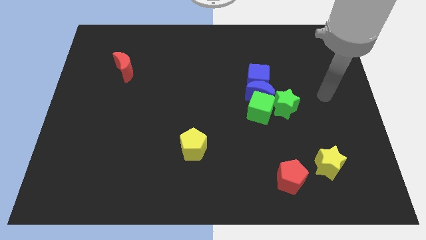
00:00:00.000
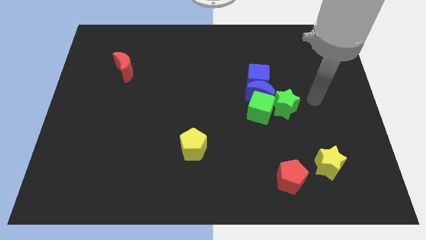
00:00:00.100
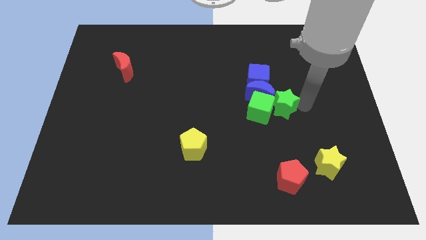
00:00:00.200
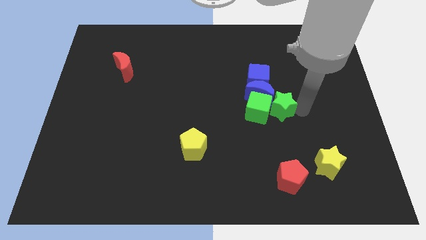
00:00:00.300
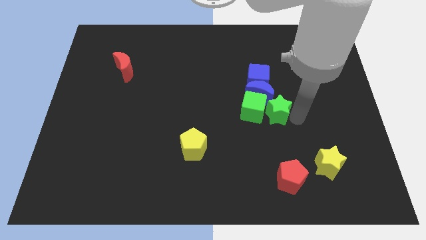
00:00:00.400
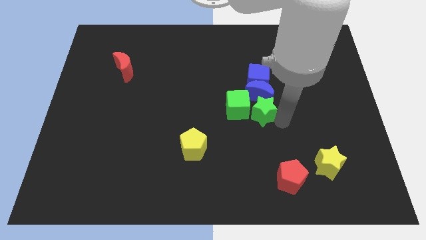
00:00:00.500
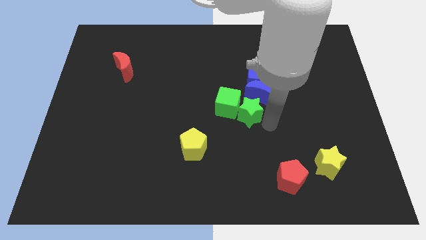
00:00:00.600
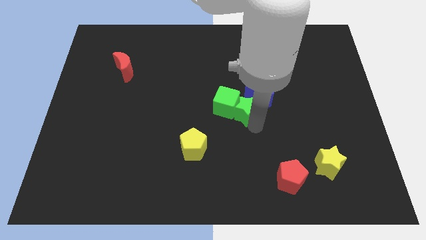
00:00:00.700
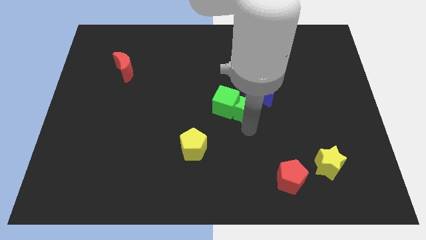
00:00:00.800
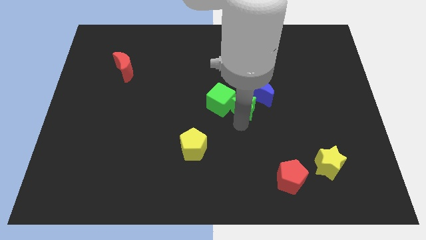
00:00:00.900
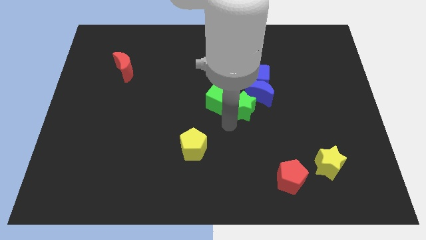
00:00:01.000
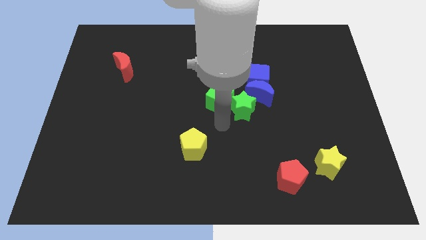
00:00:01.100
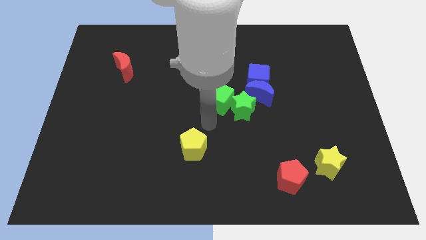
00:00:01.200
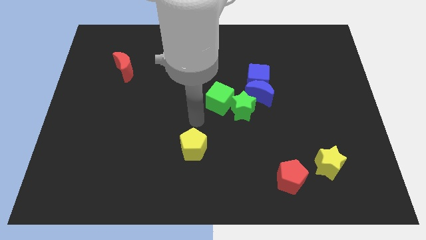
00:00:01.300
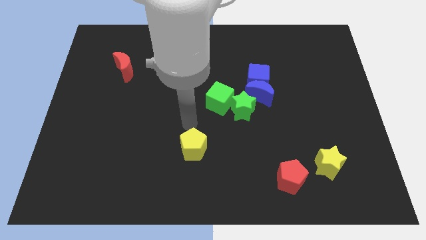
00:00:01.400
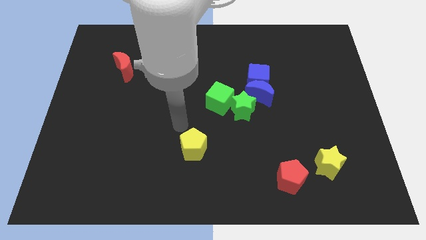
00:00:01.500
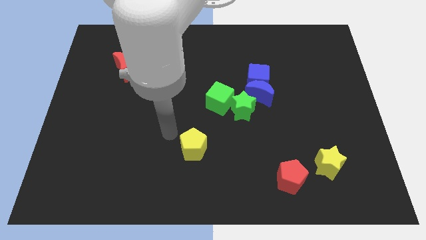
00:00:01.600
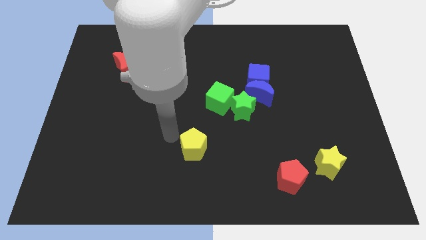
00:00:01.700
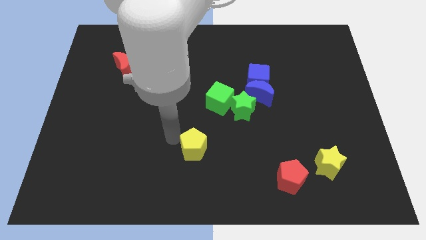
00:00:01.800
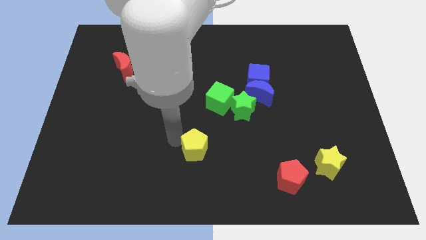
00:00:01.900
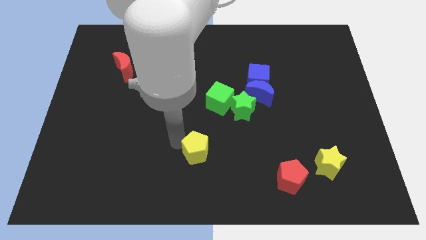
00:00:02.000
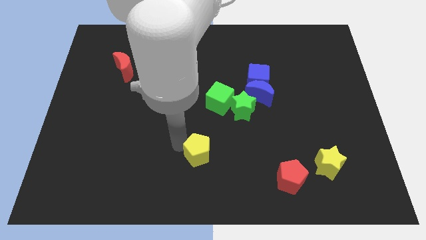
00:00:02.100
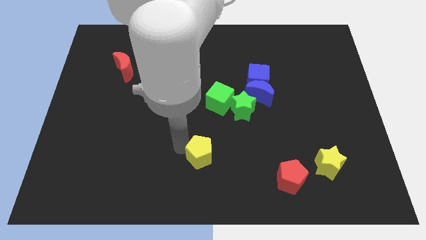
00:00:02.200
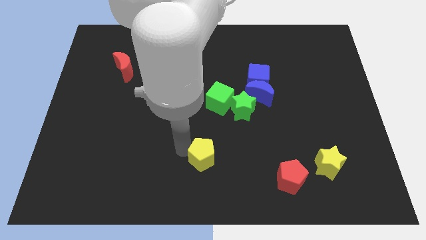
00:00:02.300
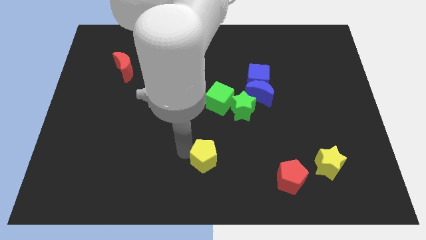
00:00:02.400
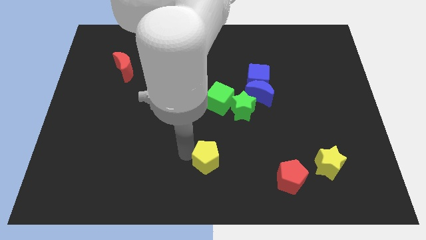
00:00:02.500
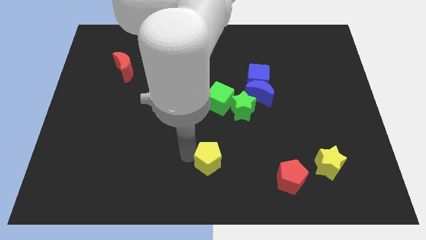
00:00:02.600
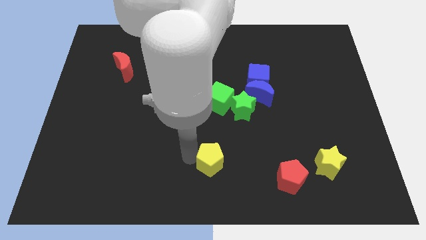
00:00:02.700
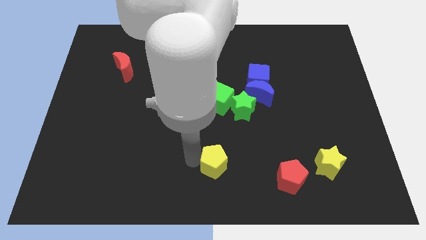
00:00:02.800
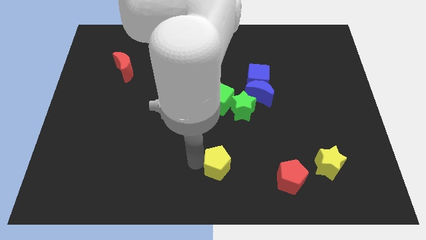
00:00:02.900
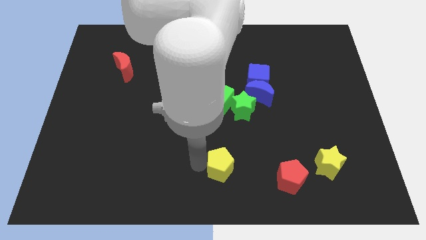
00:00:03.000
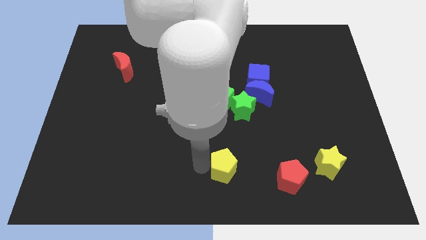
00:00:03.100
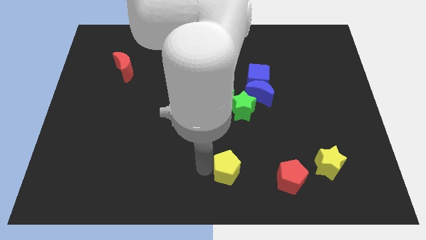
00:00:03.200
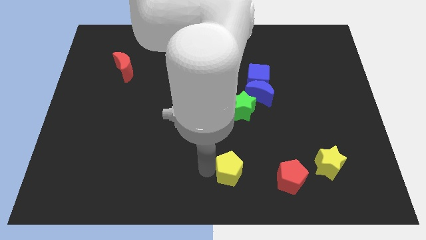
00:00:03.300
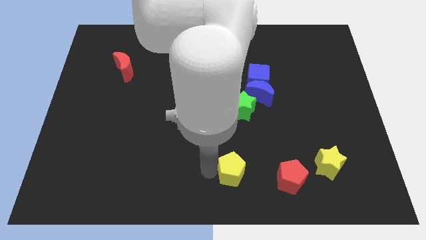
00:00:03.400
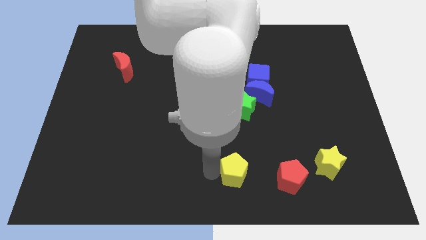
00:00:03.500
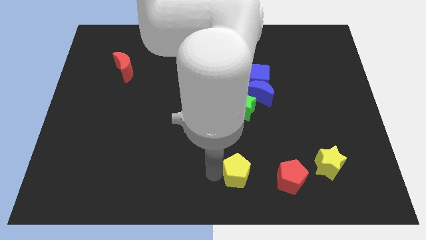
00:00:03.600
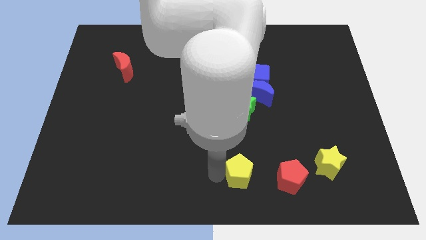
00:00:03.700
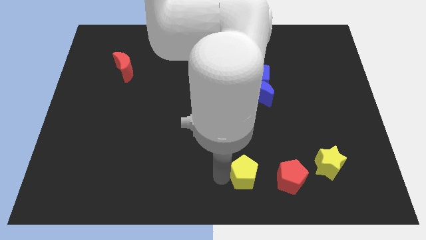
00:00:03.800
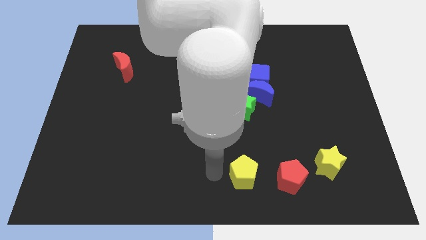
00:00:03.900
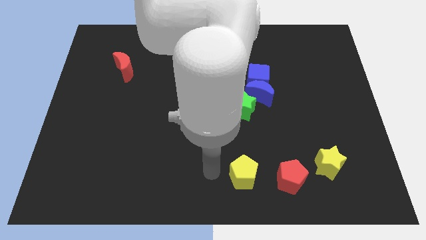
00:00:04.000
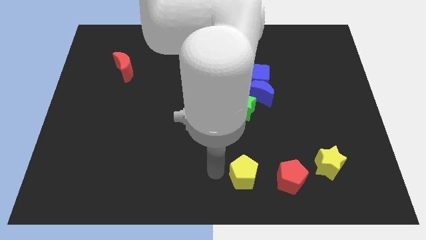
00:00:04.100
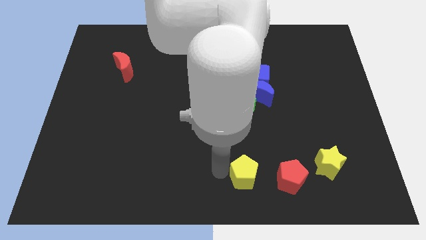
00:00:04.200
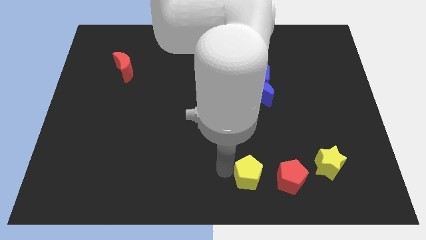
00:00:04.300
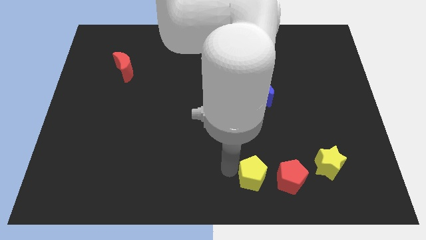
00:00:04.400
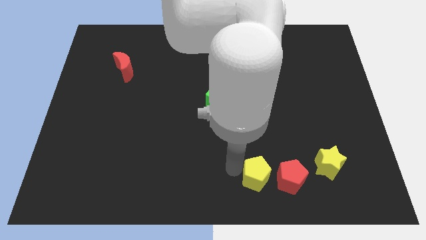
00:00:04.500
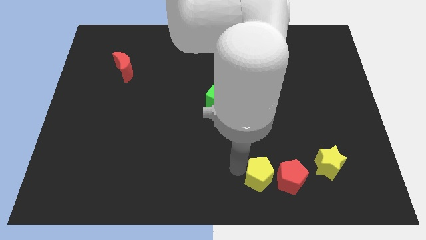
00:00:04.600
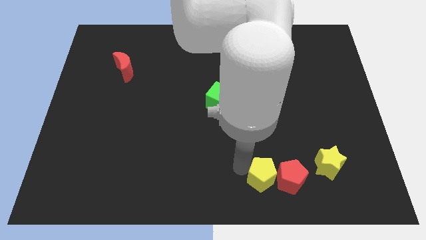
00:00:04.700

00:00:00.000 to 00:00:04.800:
move the yellow pentagon close to the red pentagon

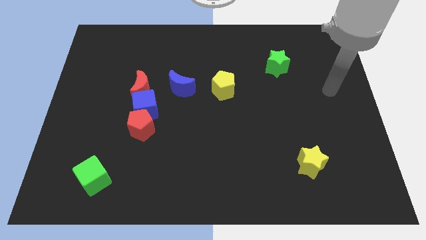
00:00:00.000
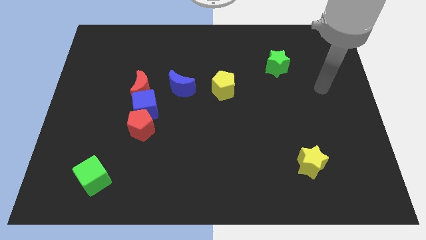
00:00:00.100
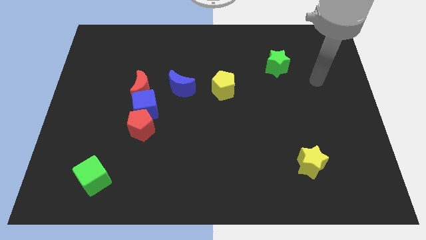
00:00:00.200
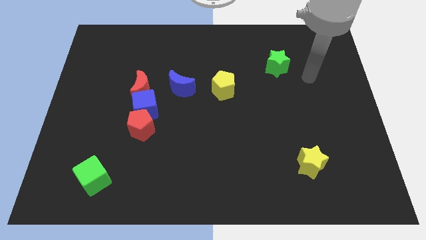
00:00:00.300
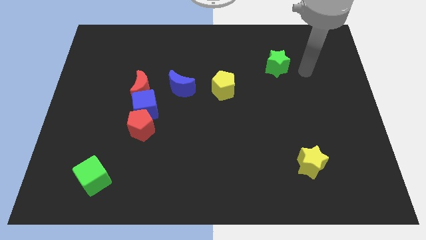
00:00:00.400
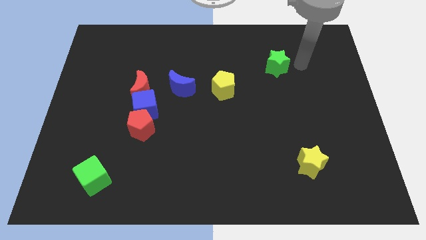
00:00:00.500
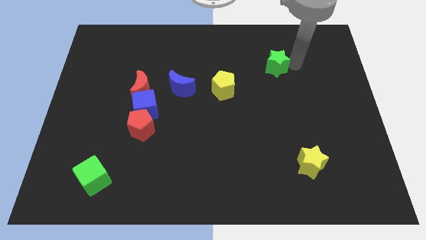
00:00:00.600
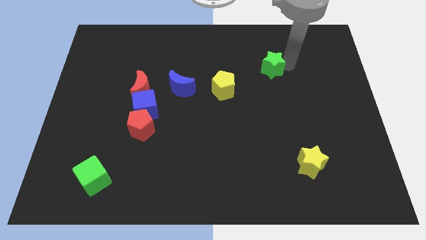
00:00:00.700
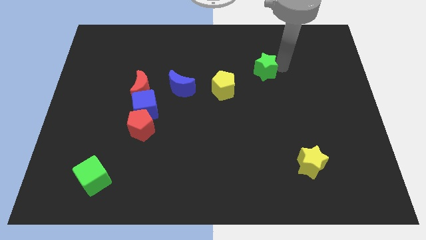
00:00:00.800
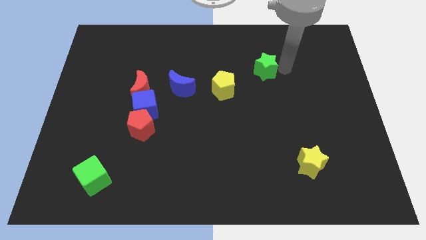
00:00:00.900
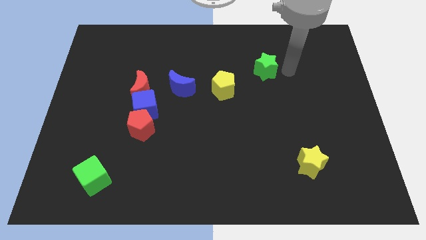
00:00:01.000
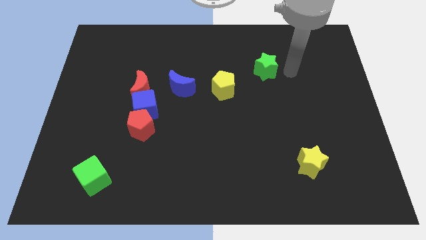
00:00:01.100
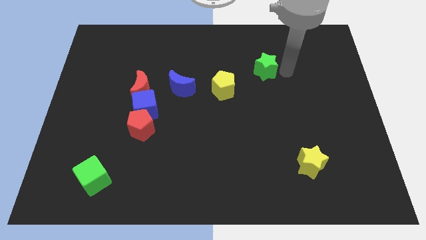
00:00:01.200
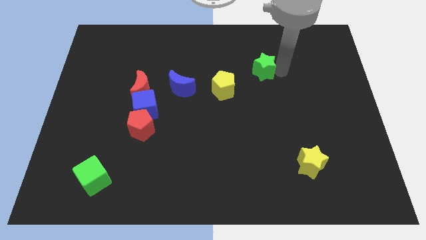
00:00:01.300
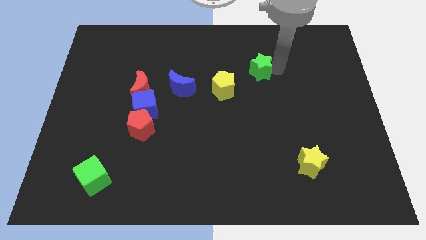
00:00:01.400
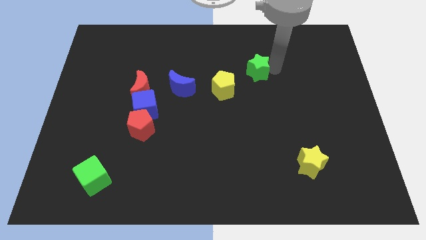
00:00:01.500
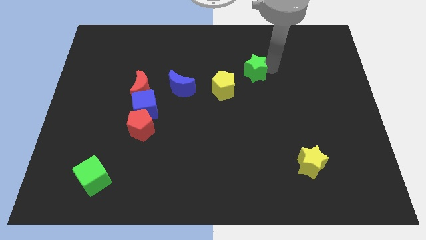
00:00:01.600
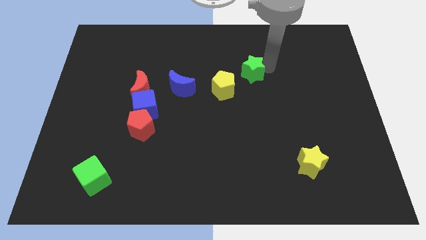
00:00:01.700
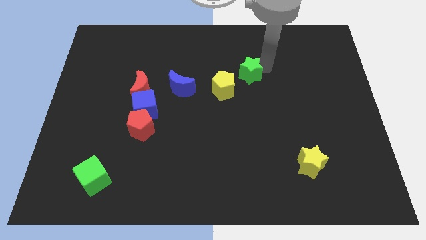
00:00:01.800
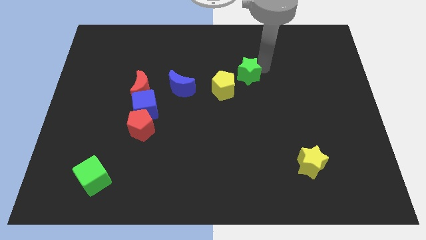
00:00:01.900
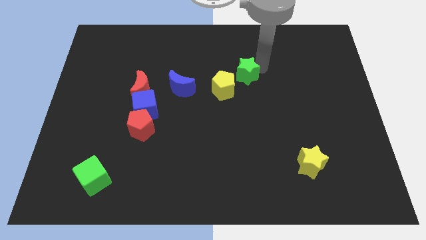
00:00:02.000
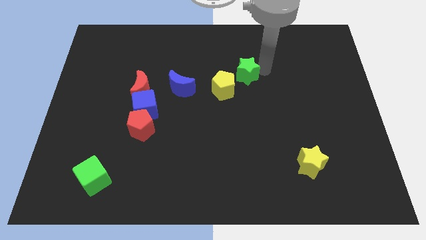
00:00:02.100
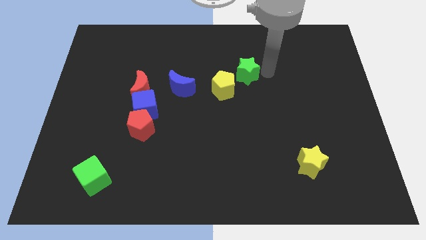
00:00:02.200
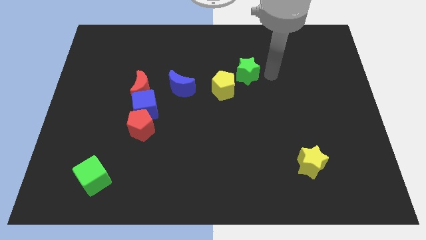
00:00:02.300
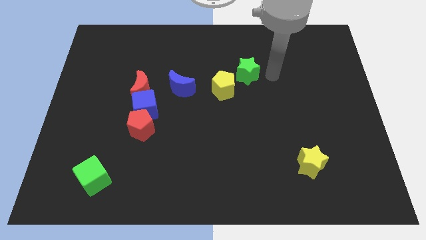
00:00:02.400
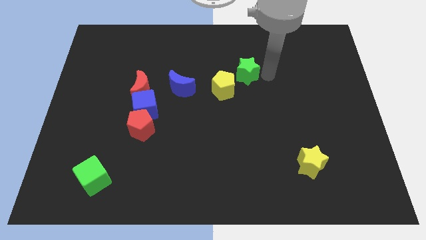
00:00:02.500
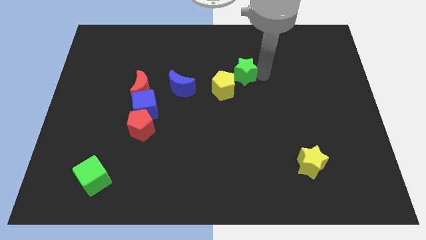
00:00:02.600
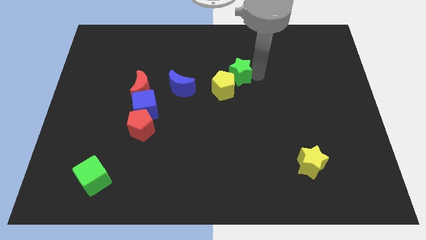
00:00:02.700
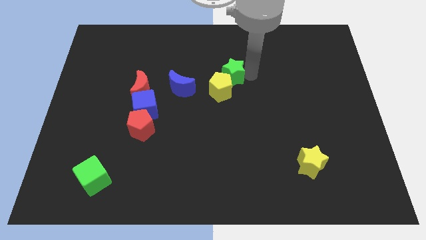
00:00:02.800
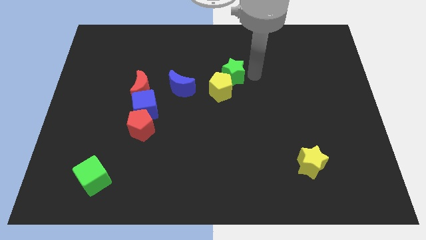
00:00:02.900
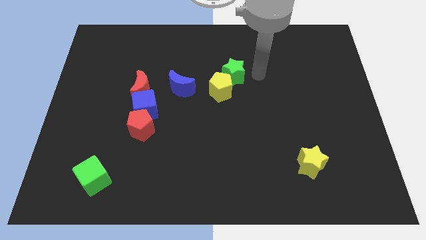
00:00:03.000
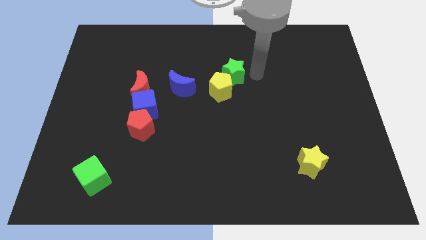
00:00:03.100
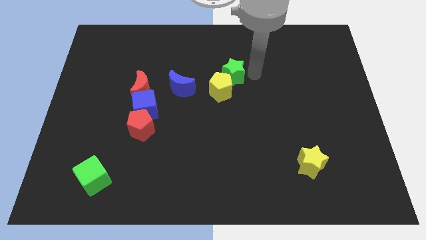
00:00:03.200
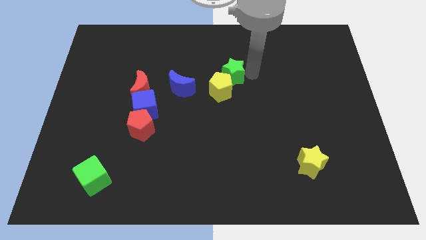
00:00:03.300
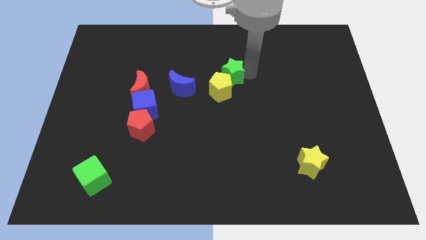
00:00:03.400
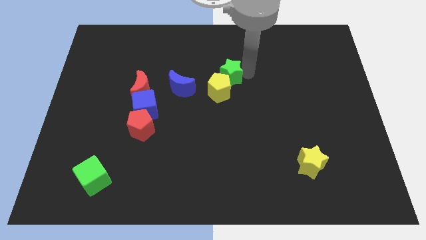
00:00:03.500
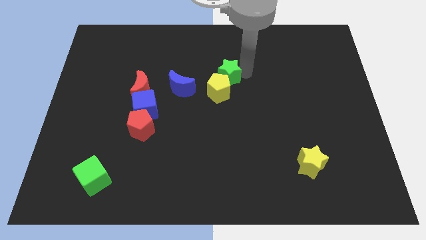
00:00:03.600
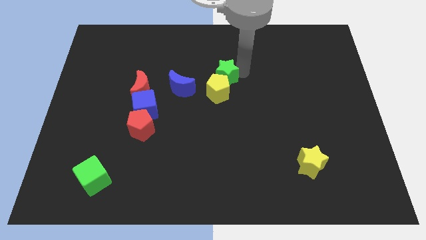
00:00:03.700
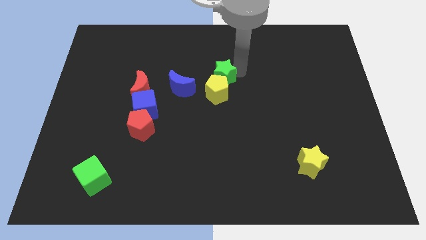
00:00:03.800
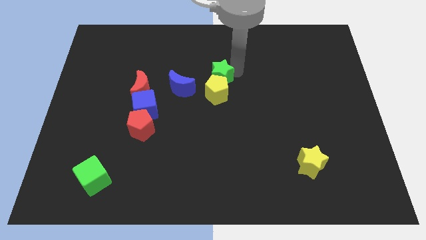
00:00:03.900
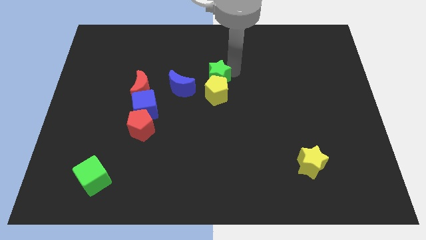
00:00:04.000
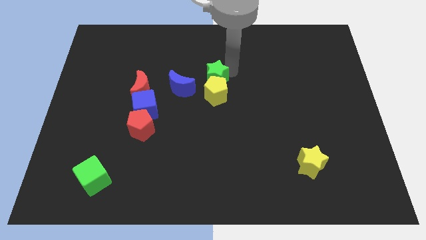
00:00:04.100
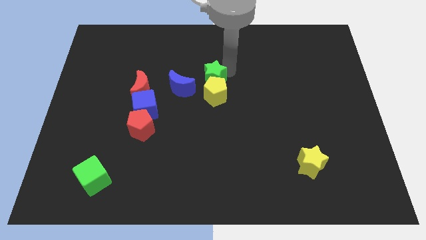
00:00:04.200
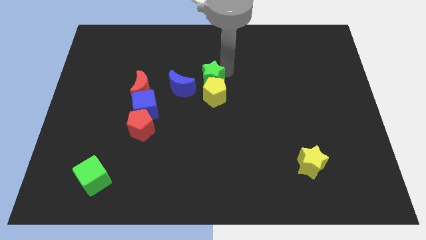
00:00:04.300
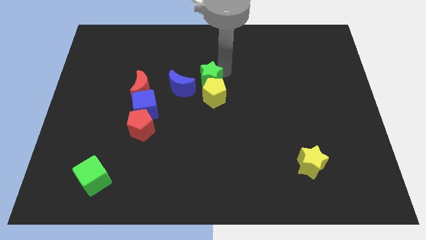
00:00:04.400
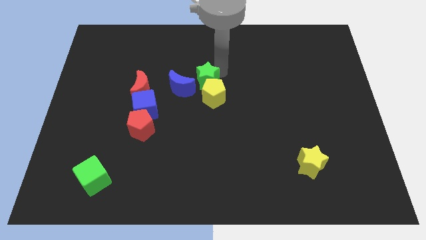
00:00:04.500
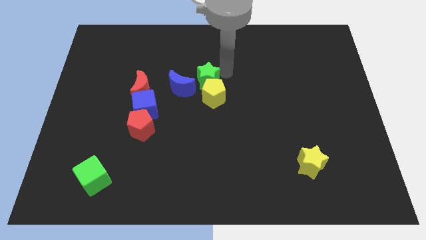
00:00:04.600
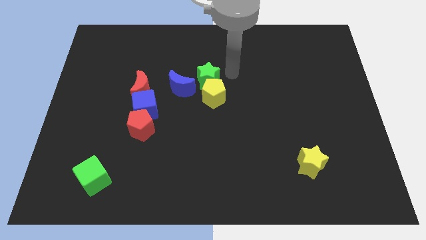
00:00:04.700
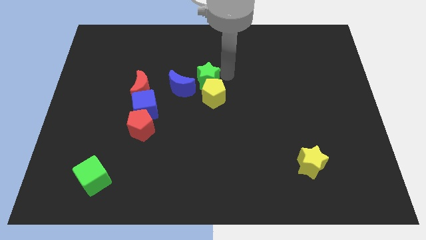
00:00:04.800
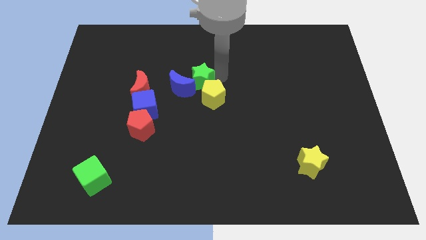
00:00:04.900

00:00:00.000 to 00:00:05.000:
put the green star towards the blue moon
